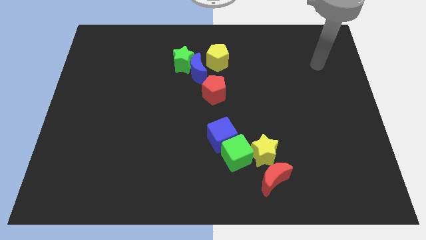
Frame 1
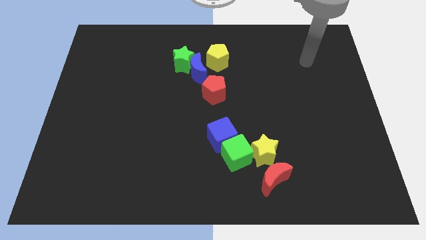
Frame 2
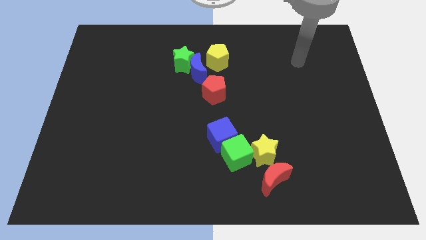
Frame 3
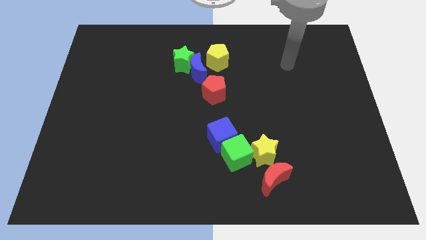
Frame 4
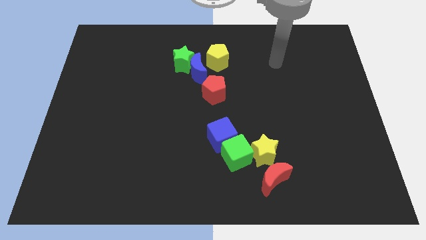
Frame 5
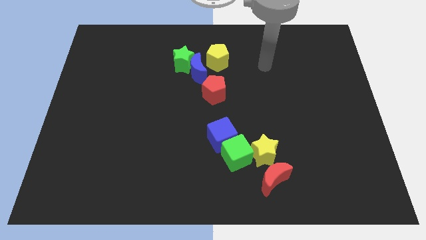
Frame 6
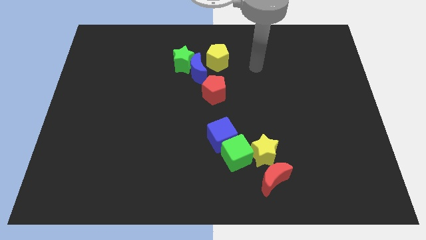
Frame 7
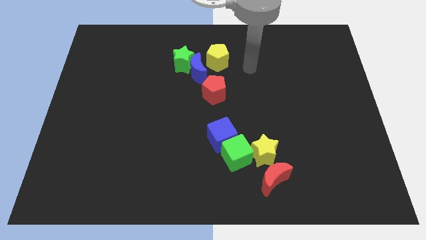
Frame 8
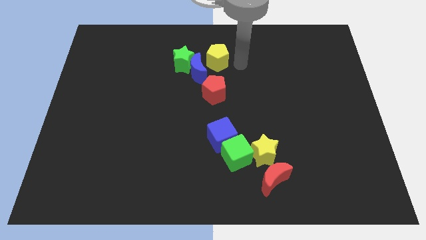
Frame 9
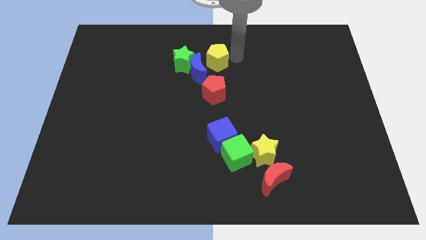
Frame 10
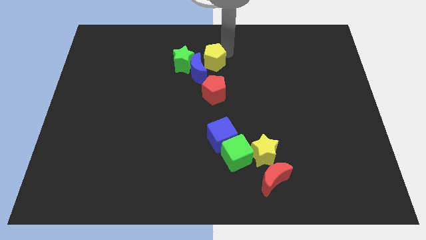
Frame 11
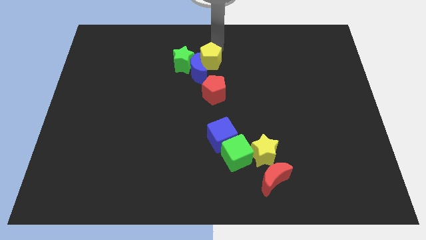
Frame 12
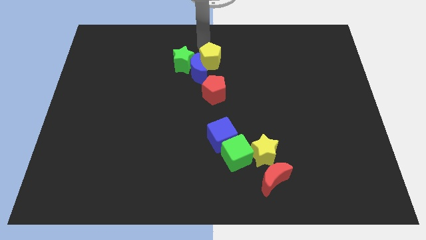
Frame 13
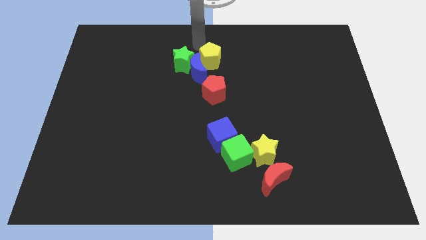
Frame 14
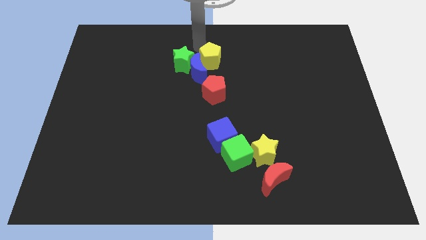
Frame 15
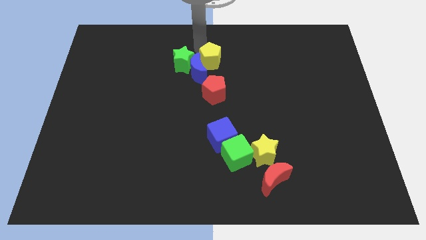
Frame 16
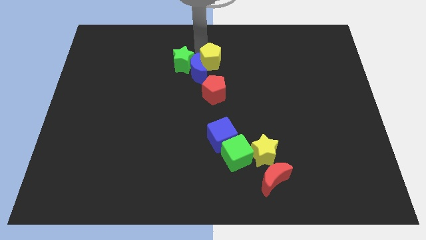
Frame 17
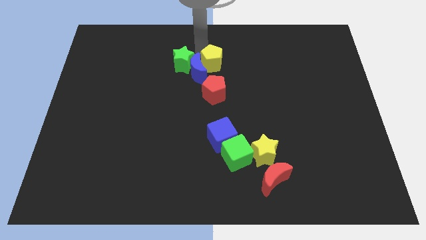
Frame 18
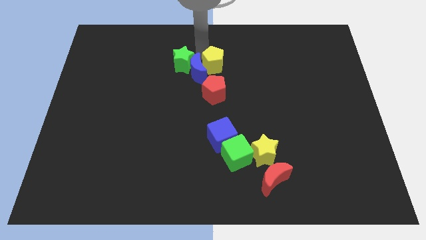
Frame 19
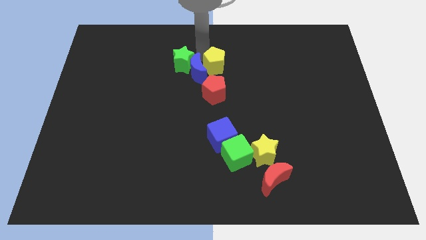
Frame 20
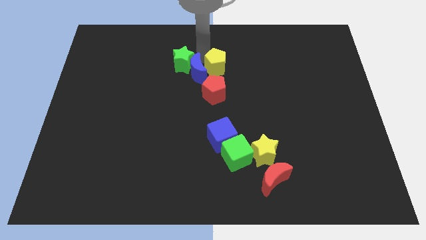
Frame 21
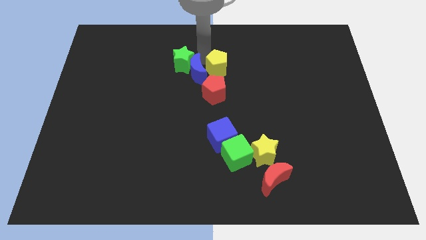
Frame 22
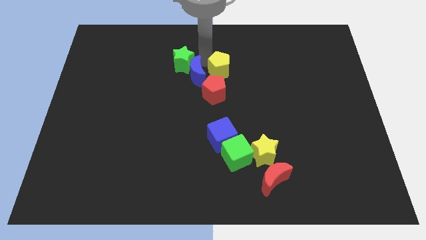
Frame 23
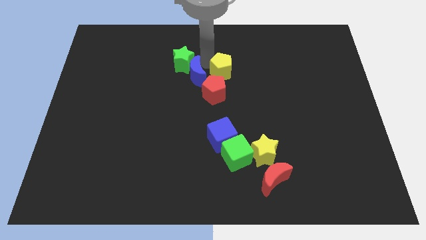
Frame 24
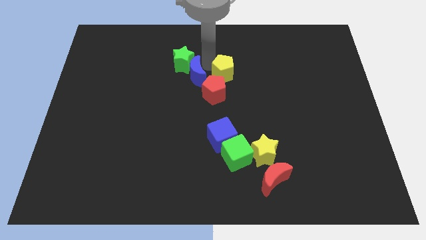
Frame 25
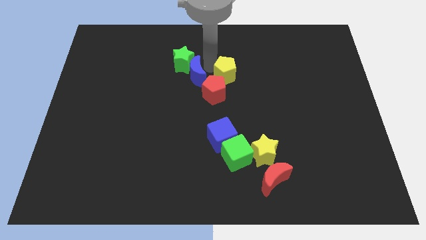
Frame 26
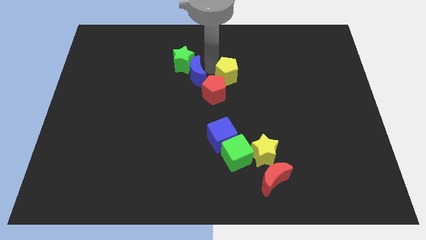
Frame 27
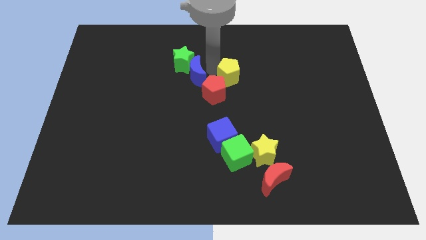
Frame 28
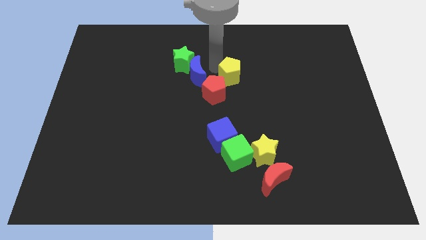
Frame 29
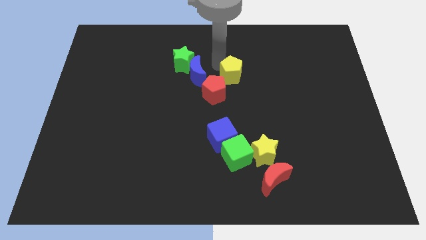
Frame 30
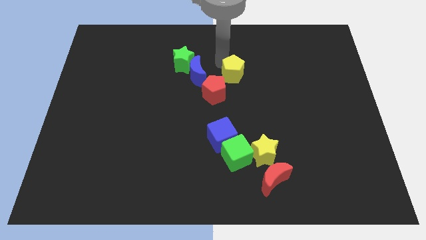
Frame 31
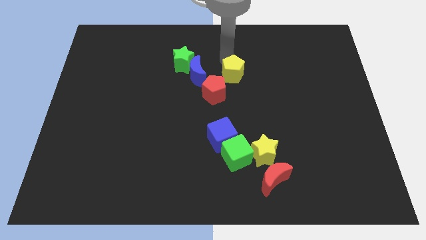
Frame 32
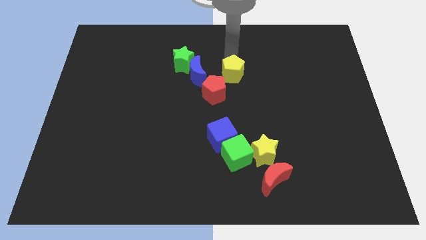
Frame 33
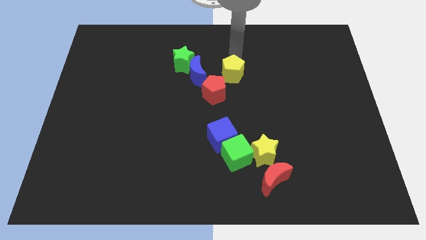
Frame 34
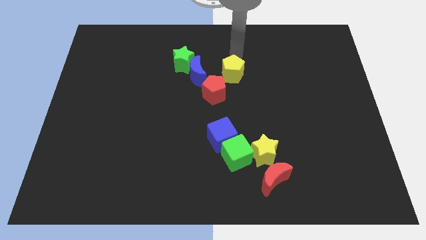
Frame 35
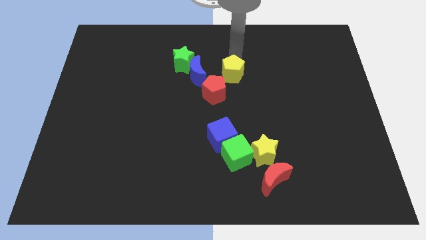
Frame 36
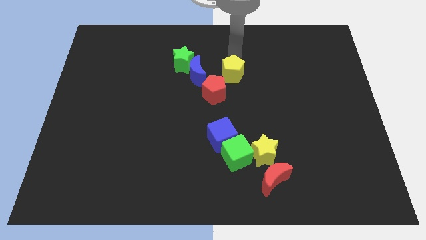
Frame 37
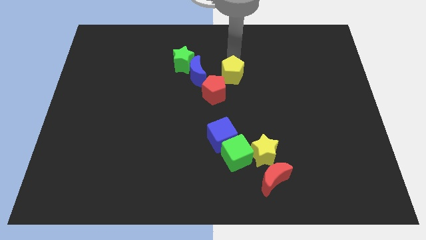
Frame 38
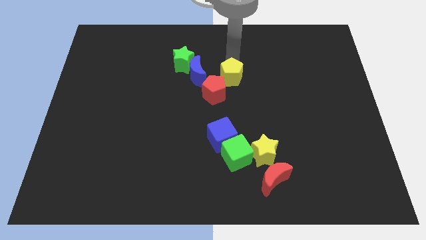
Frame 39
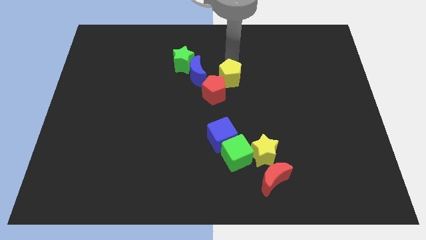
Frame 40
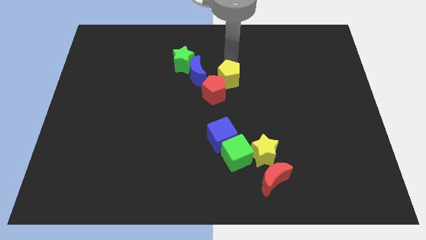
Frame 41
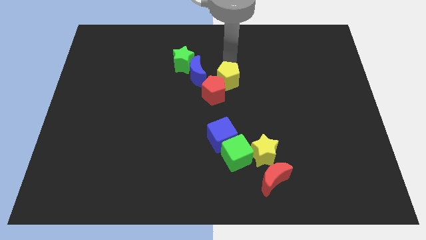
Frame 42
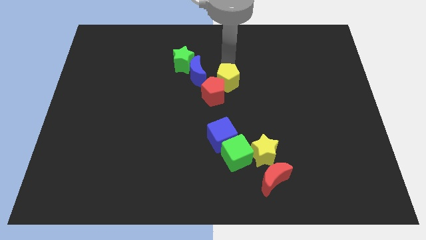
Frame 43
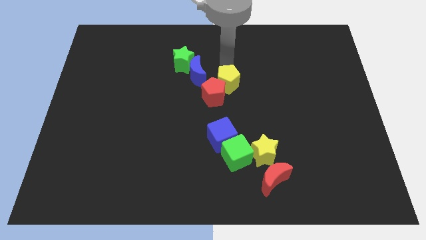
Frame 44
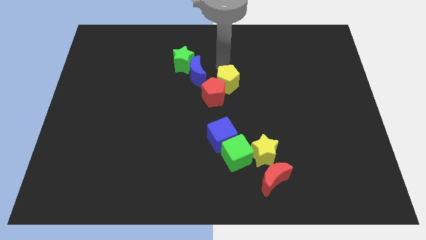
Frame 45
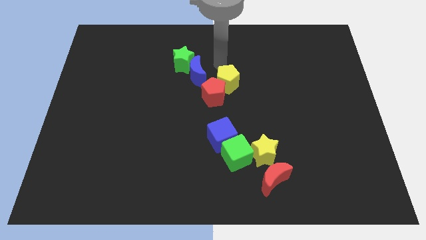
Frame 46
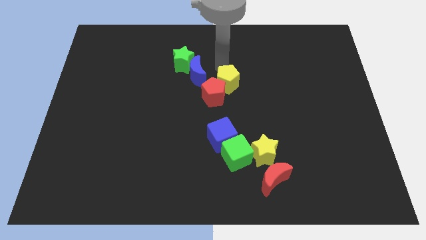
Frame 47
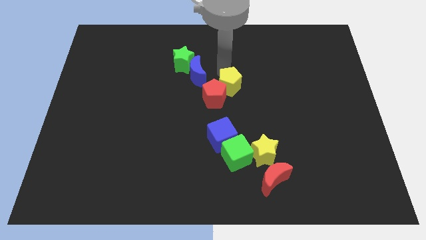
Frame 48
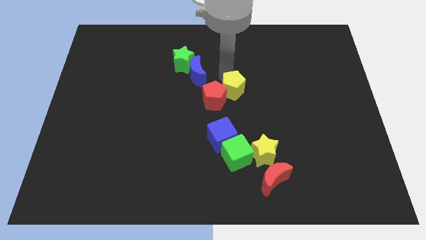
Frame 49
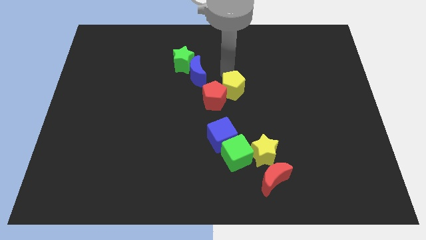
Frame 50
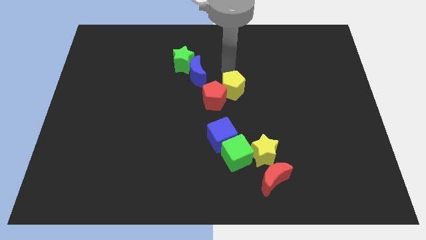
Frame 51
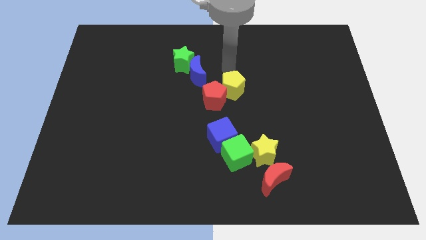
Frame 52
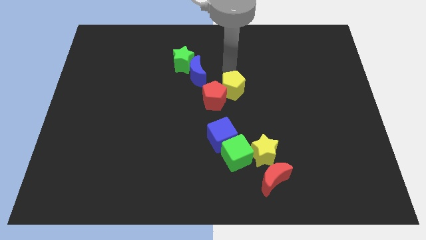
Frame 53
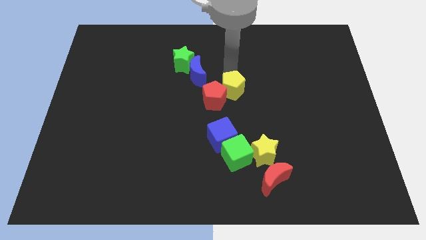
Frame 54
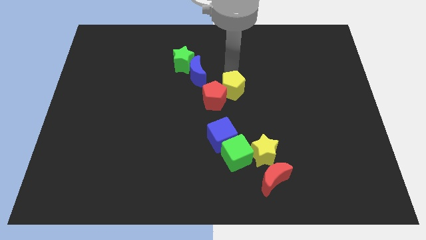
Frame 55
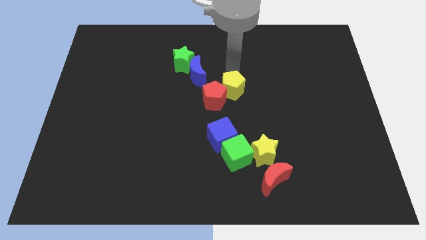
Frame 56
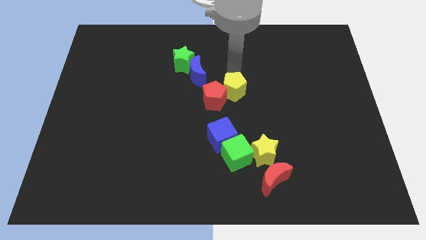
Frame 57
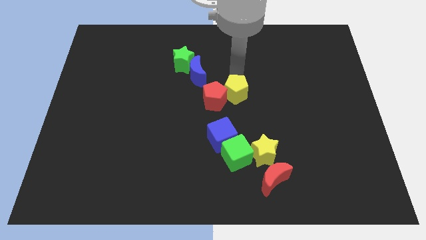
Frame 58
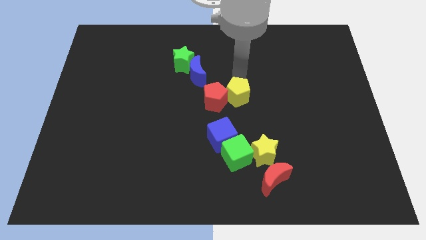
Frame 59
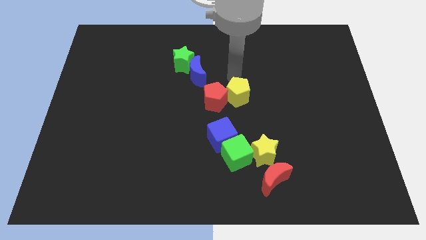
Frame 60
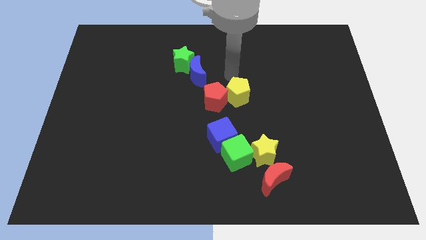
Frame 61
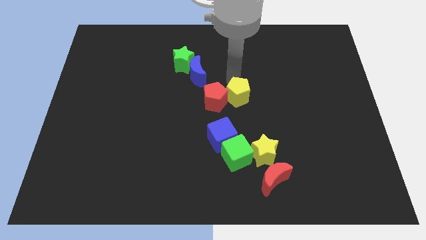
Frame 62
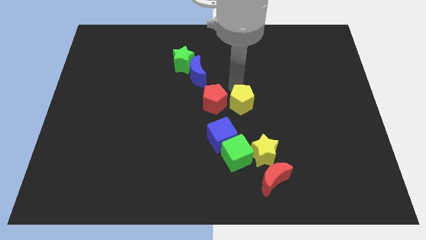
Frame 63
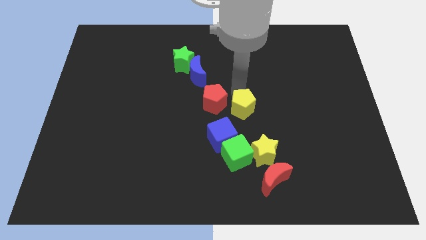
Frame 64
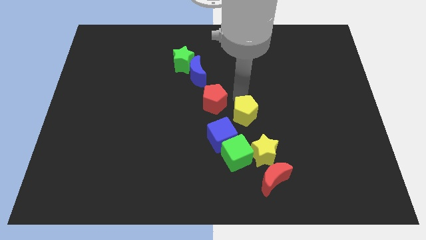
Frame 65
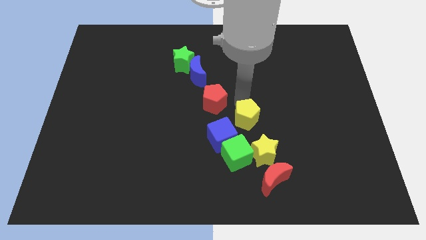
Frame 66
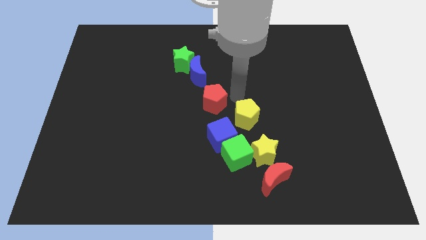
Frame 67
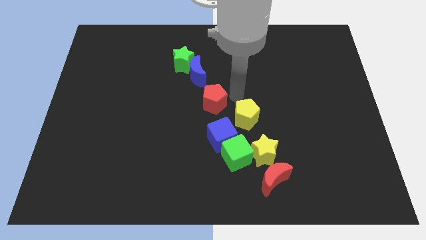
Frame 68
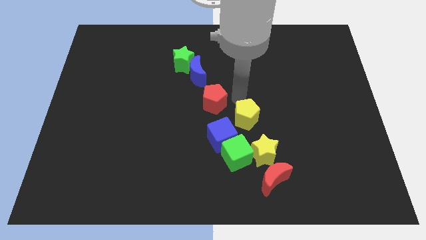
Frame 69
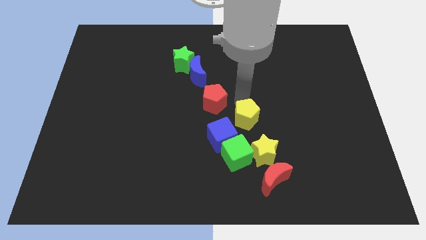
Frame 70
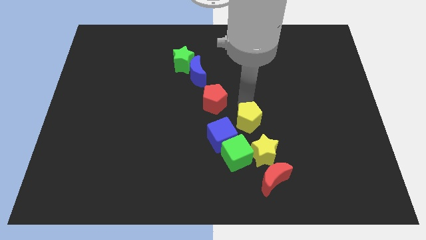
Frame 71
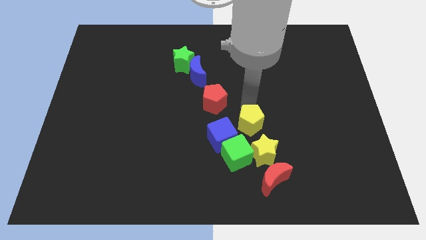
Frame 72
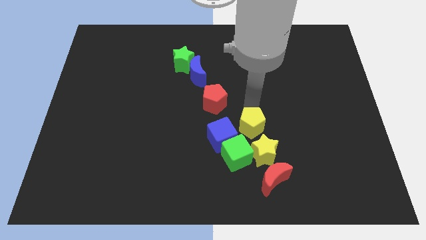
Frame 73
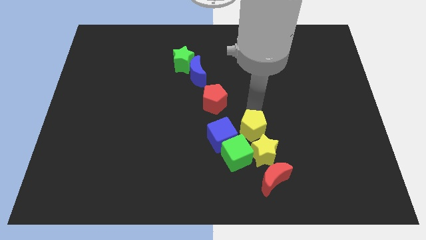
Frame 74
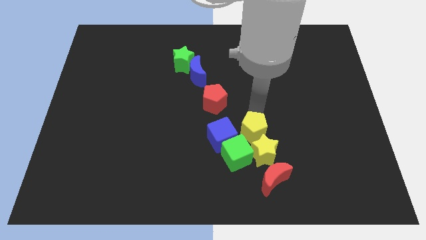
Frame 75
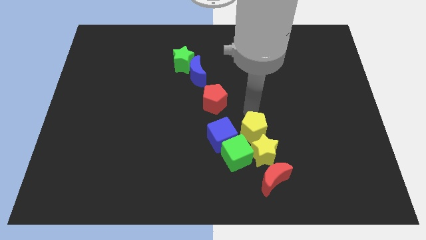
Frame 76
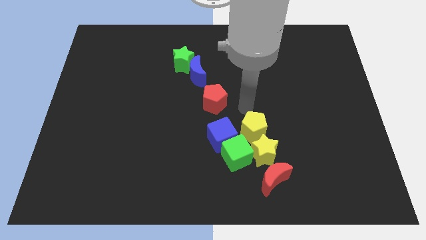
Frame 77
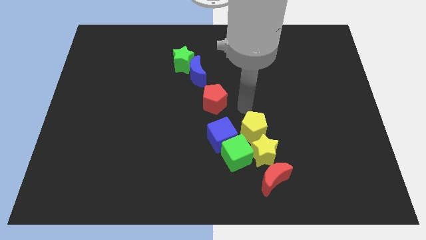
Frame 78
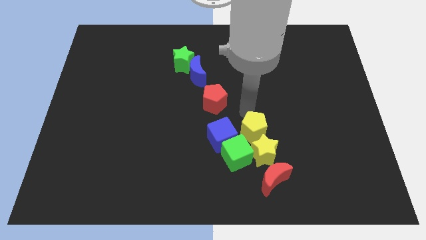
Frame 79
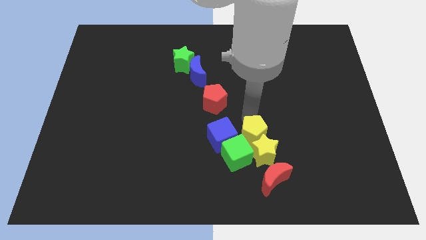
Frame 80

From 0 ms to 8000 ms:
put the yellow pentagon close to the yellow star
